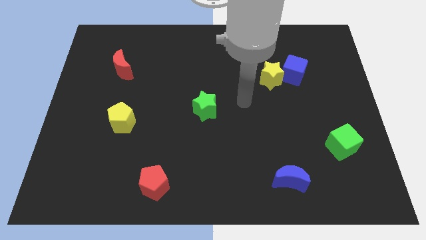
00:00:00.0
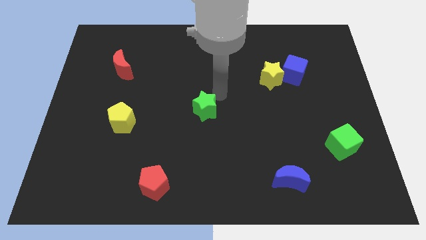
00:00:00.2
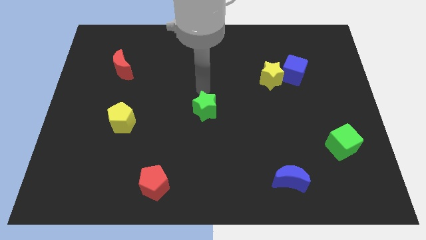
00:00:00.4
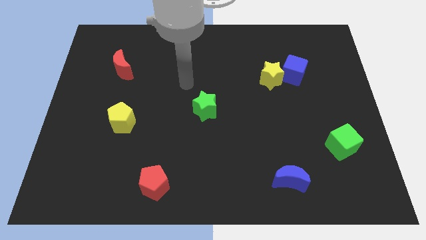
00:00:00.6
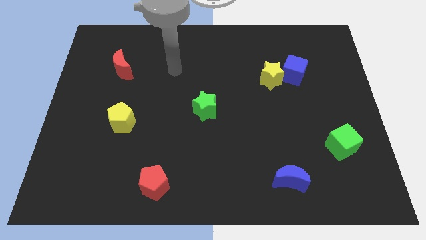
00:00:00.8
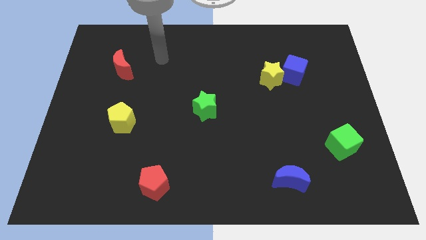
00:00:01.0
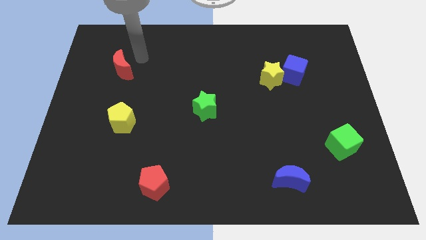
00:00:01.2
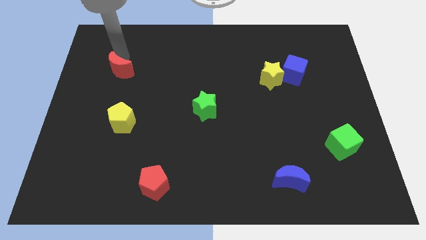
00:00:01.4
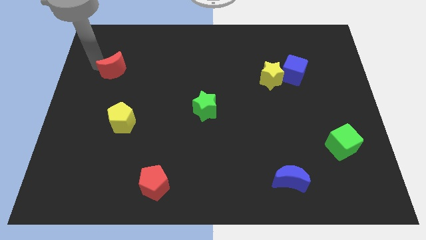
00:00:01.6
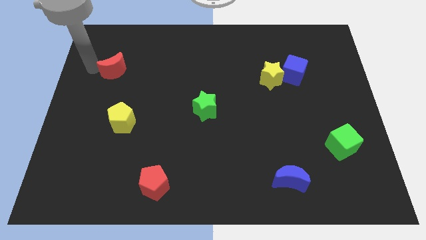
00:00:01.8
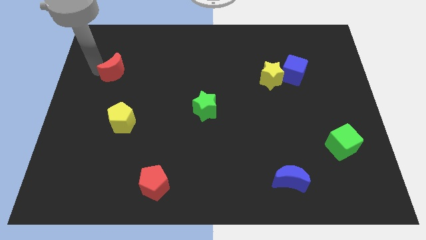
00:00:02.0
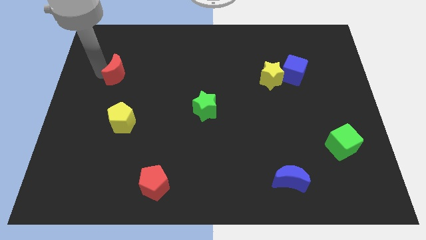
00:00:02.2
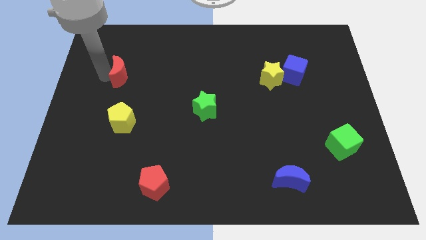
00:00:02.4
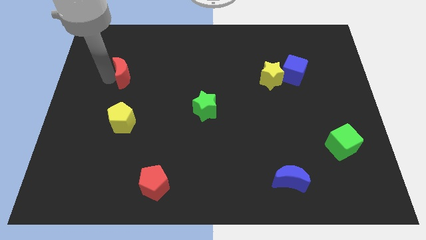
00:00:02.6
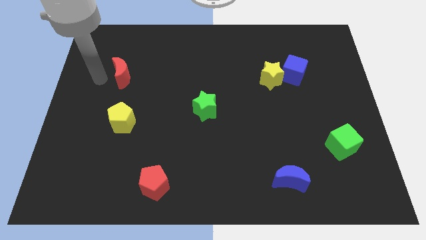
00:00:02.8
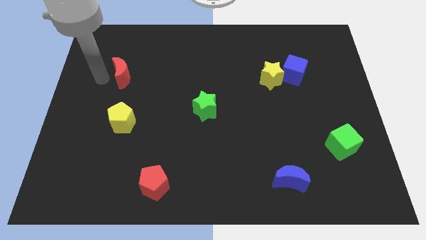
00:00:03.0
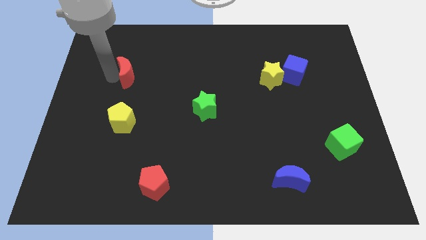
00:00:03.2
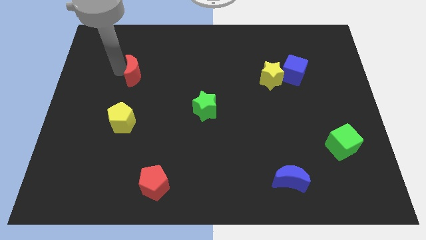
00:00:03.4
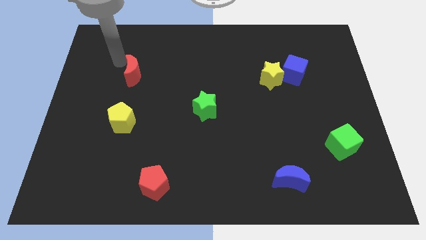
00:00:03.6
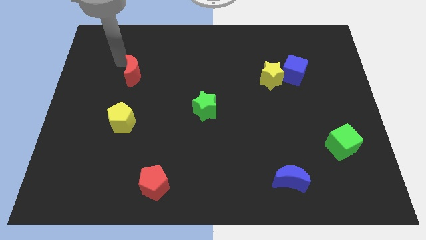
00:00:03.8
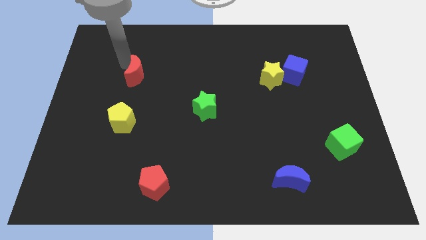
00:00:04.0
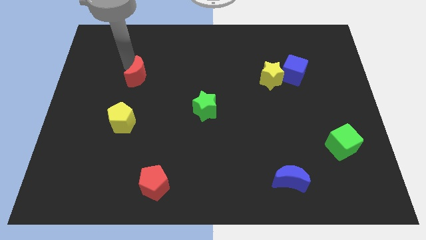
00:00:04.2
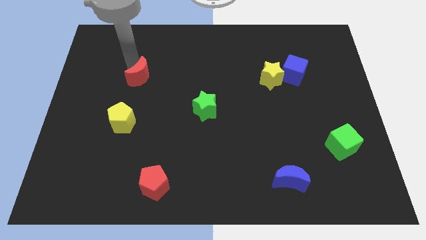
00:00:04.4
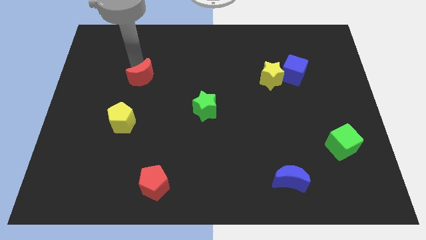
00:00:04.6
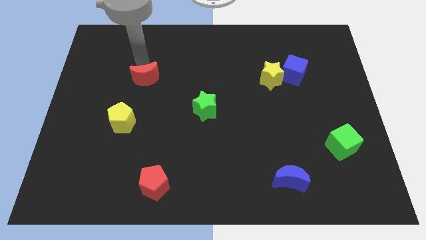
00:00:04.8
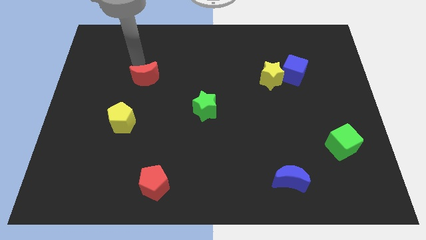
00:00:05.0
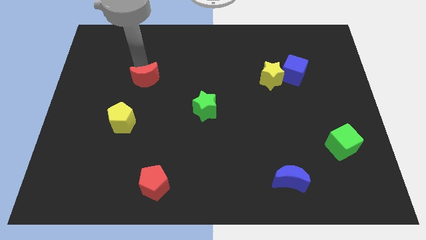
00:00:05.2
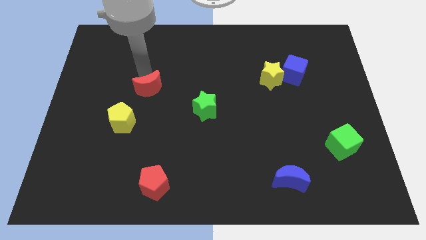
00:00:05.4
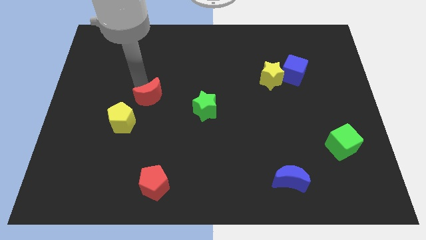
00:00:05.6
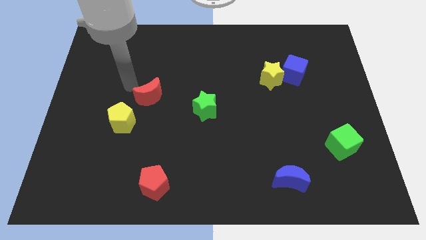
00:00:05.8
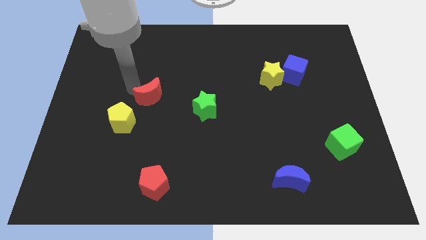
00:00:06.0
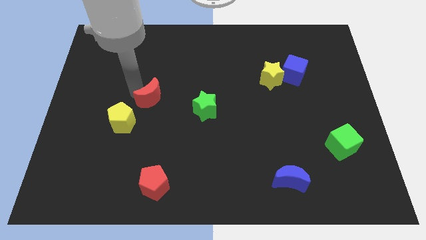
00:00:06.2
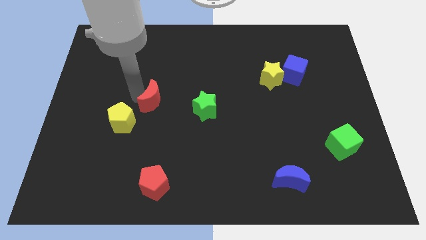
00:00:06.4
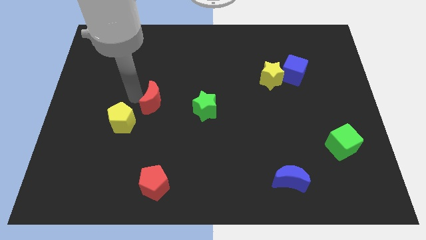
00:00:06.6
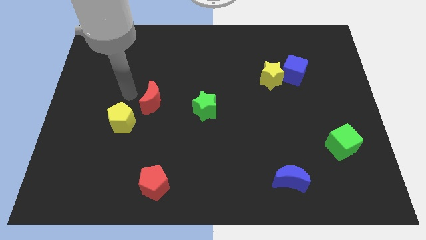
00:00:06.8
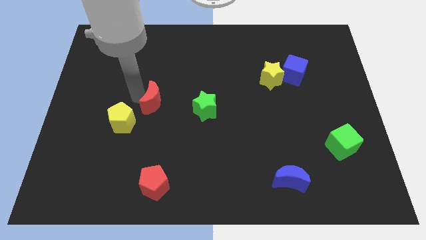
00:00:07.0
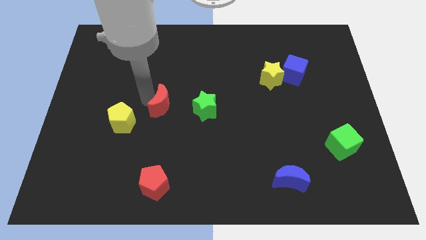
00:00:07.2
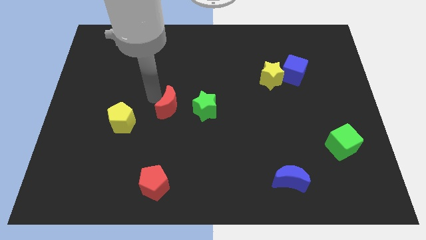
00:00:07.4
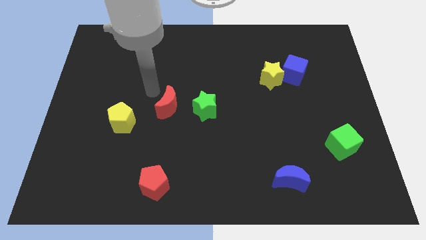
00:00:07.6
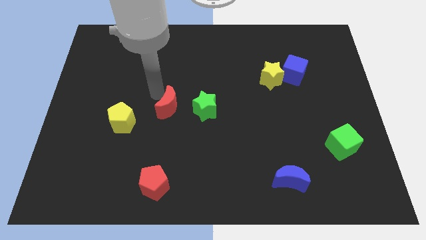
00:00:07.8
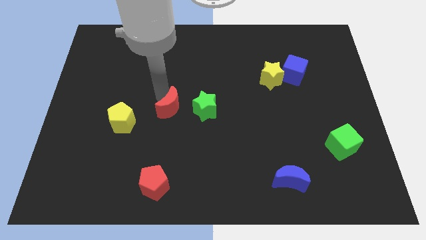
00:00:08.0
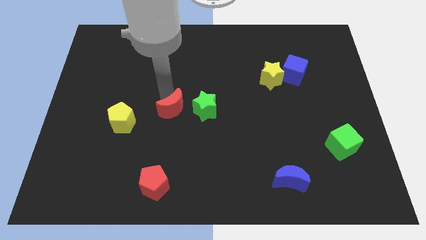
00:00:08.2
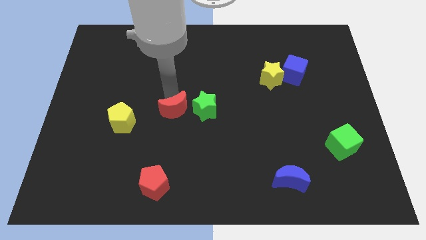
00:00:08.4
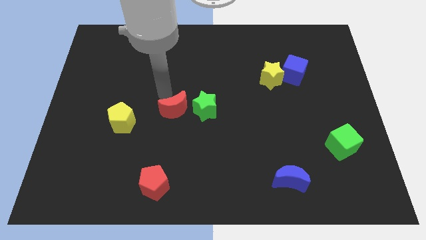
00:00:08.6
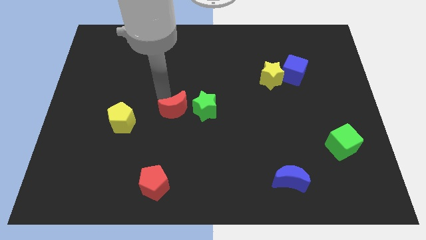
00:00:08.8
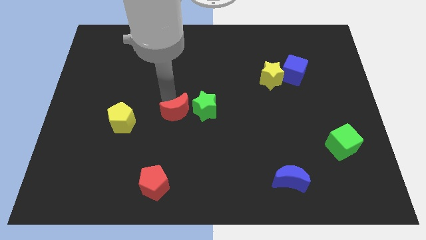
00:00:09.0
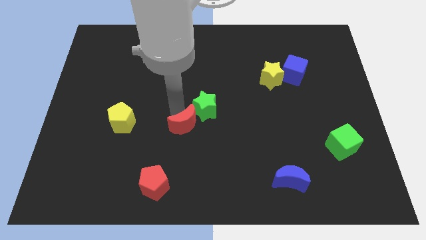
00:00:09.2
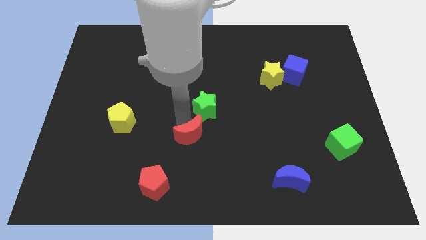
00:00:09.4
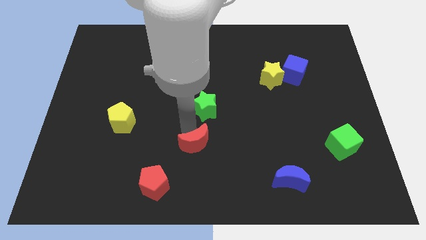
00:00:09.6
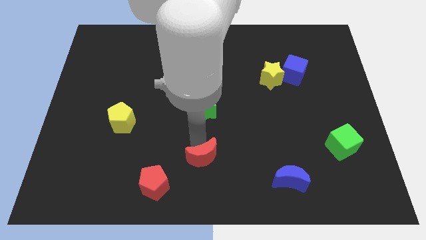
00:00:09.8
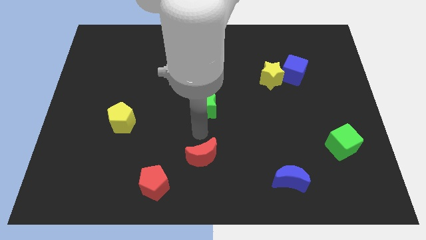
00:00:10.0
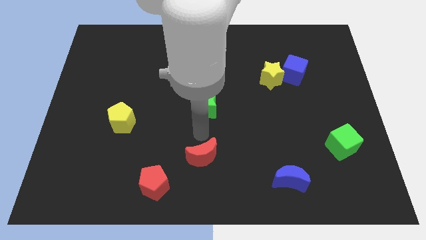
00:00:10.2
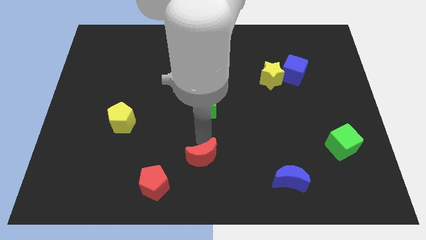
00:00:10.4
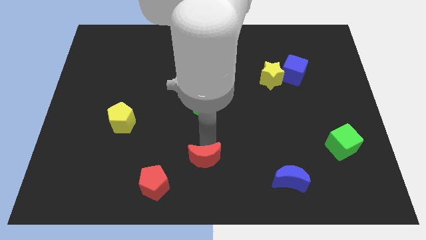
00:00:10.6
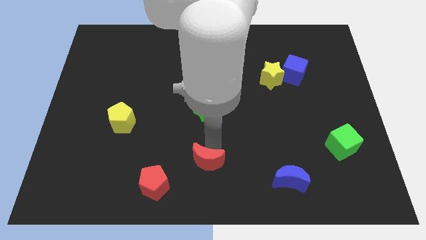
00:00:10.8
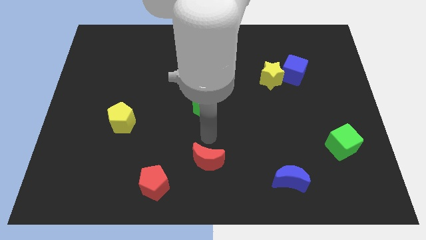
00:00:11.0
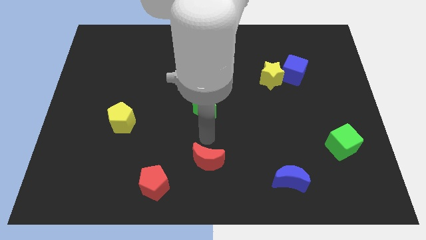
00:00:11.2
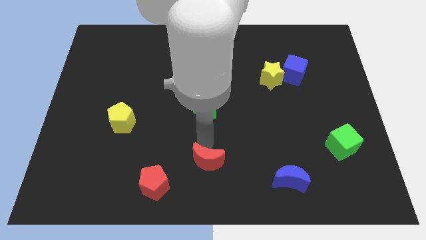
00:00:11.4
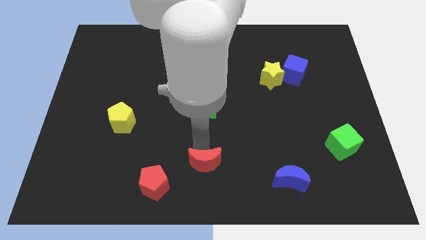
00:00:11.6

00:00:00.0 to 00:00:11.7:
move the red moon right of the red pentagon
